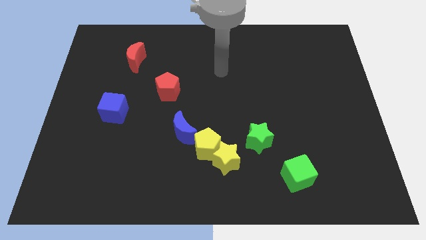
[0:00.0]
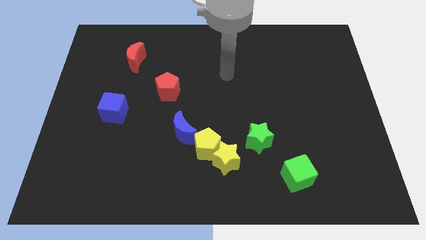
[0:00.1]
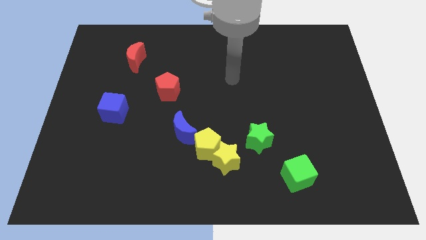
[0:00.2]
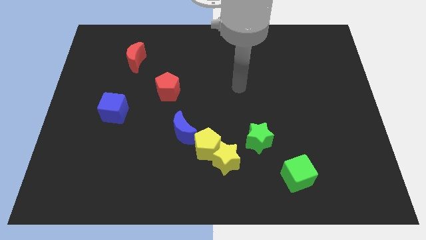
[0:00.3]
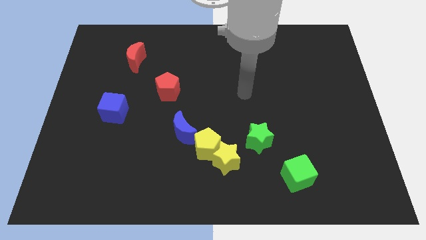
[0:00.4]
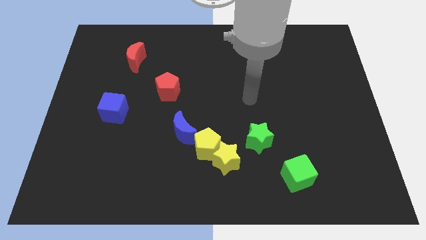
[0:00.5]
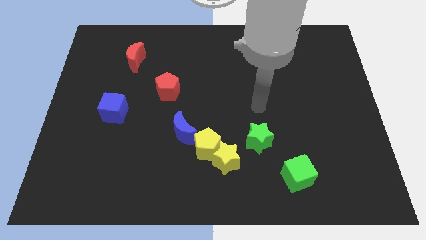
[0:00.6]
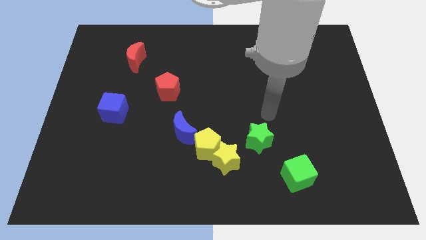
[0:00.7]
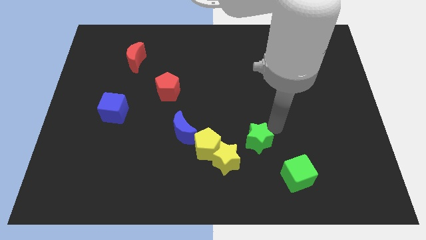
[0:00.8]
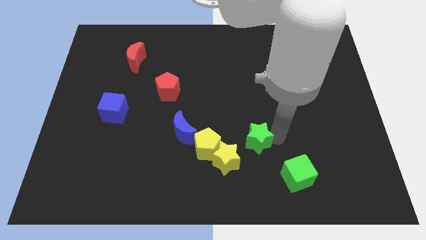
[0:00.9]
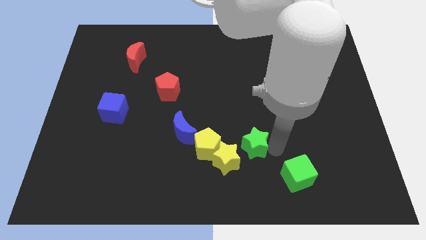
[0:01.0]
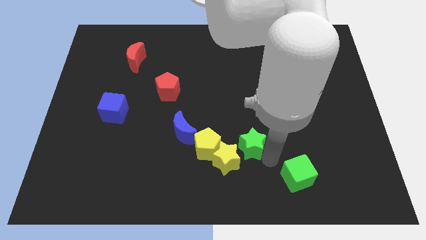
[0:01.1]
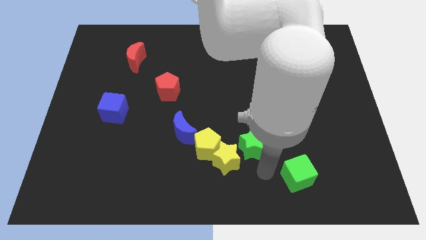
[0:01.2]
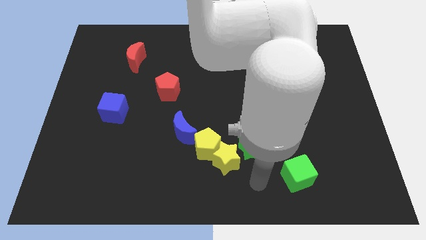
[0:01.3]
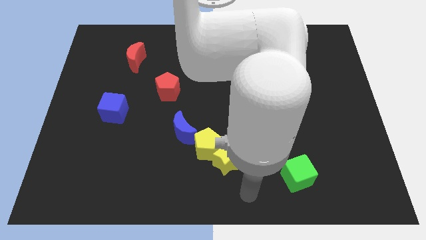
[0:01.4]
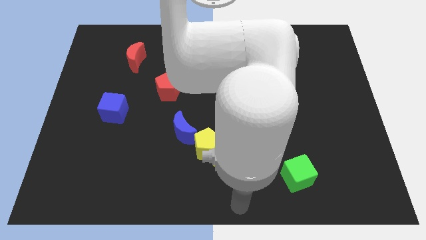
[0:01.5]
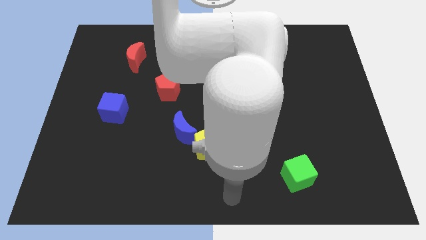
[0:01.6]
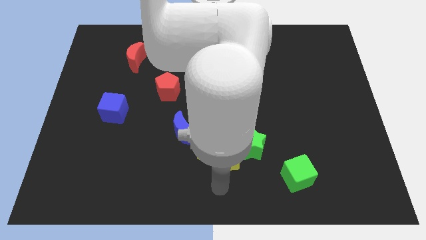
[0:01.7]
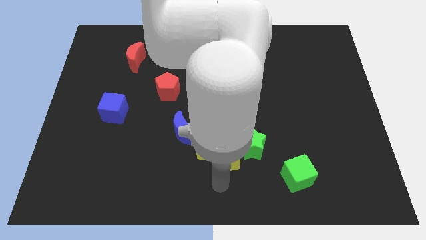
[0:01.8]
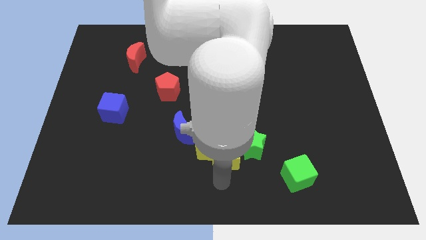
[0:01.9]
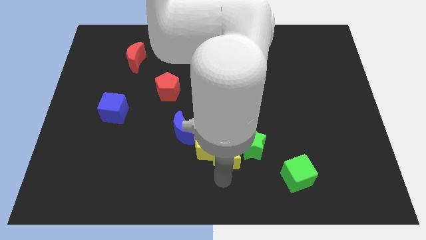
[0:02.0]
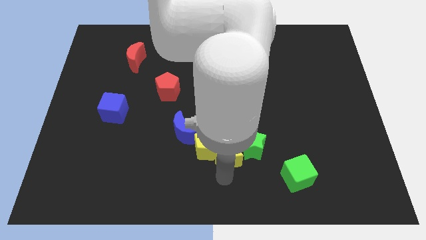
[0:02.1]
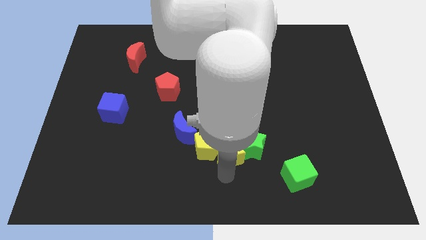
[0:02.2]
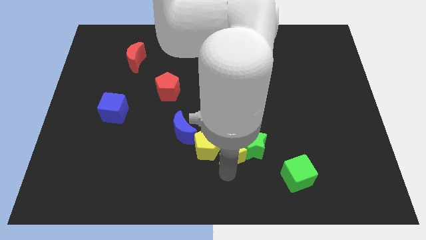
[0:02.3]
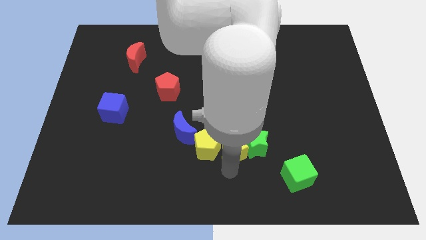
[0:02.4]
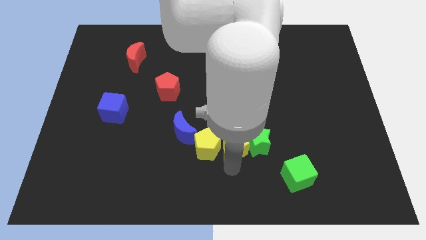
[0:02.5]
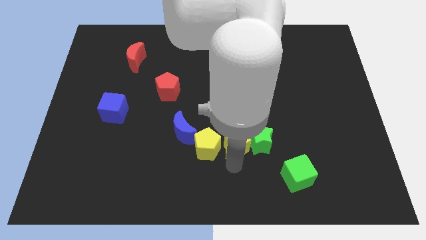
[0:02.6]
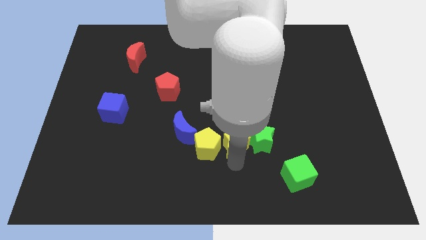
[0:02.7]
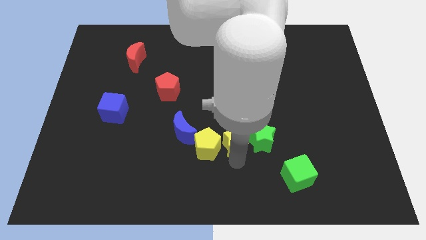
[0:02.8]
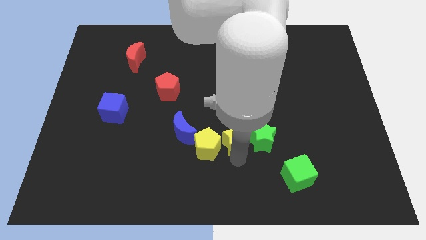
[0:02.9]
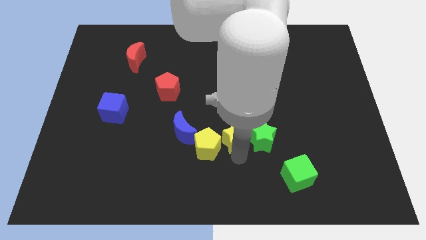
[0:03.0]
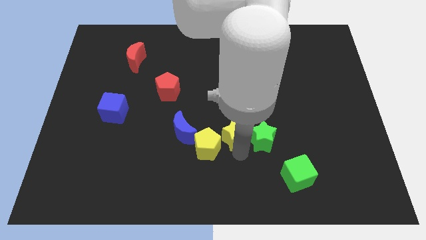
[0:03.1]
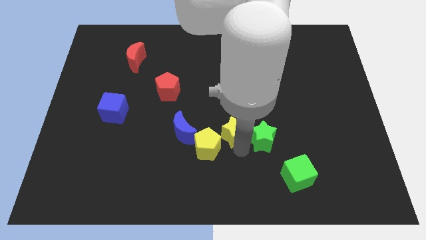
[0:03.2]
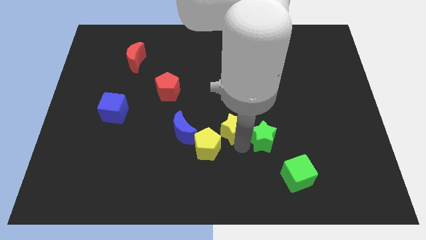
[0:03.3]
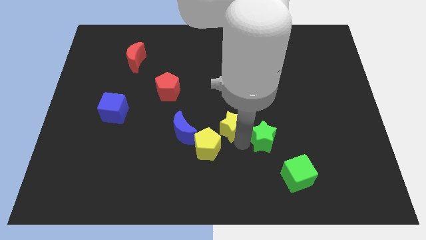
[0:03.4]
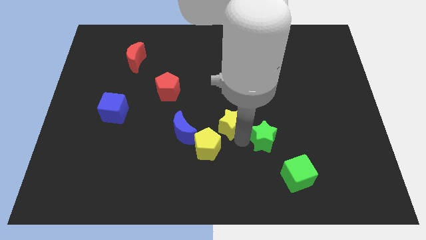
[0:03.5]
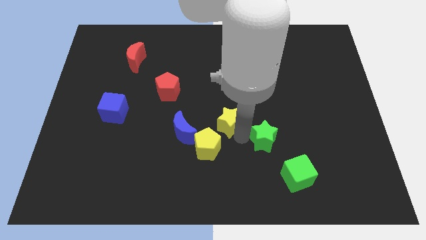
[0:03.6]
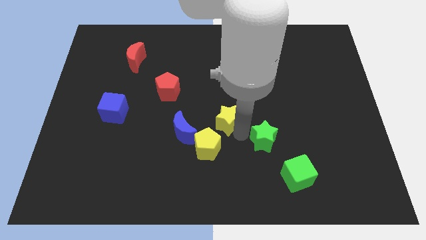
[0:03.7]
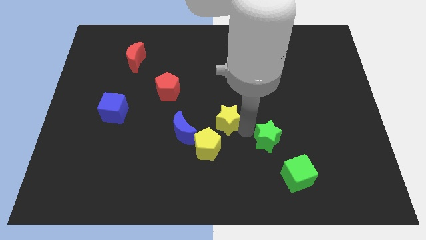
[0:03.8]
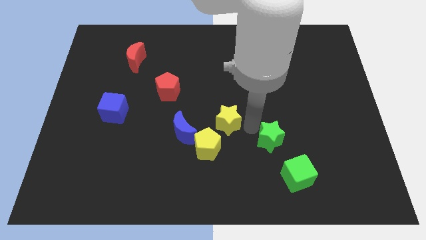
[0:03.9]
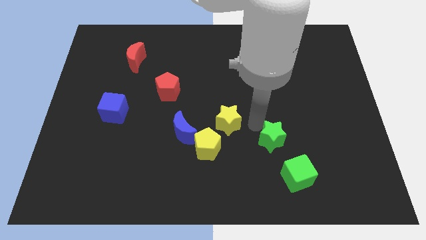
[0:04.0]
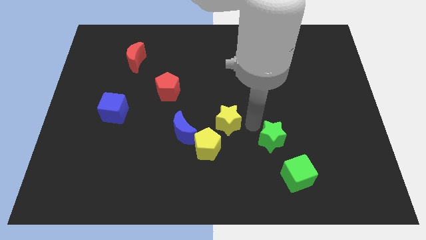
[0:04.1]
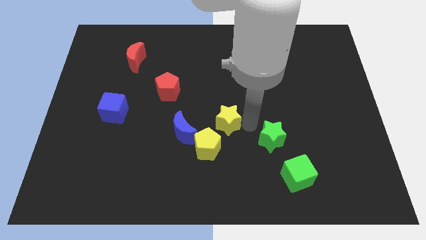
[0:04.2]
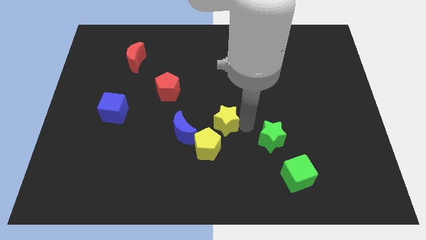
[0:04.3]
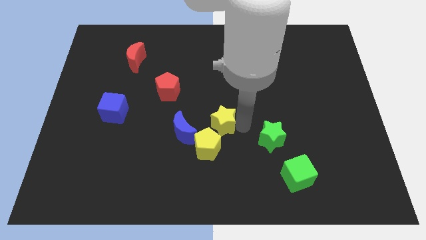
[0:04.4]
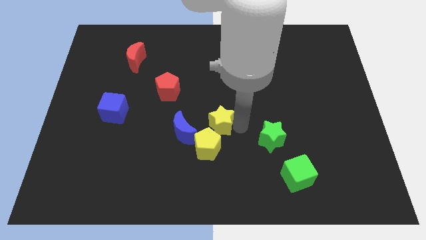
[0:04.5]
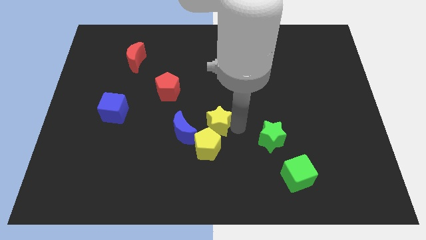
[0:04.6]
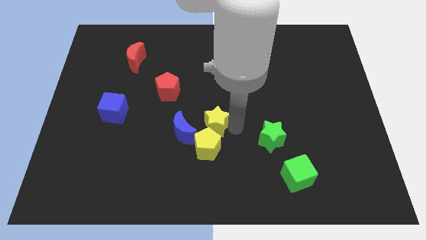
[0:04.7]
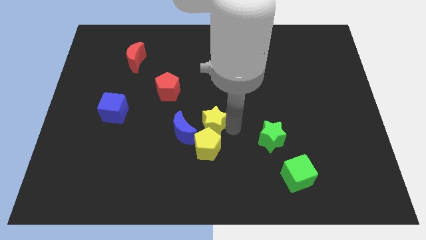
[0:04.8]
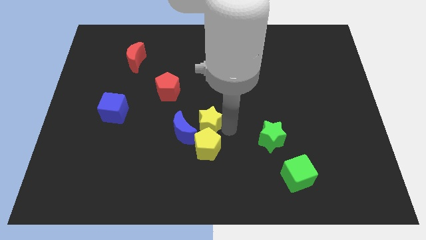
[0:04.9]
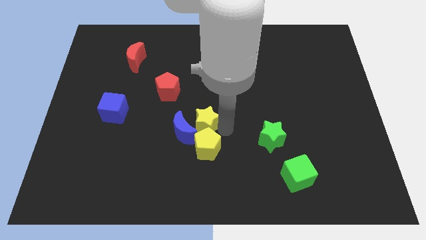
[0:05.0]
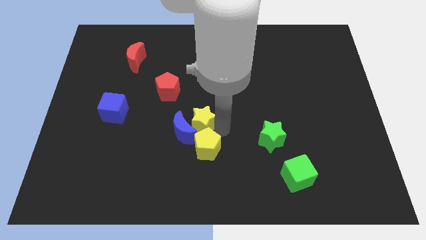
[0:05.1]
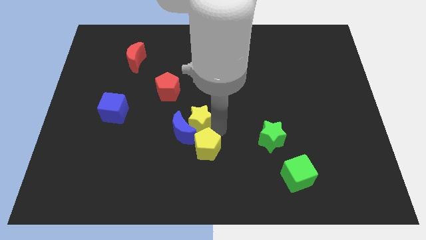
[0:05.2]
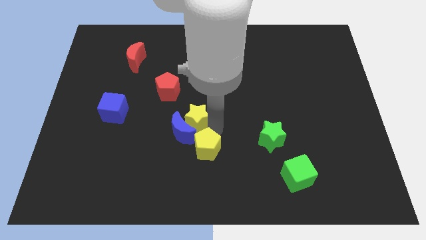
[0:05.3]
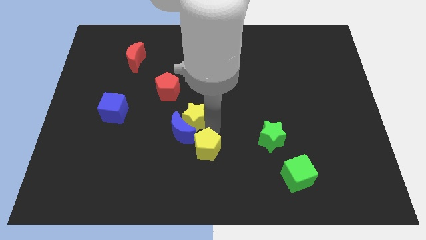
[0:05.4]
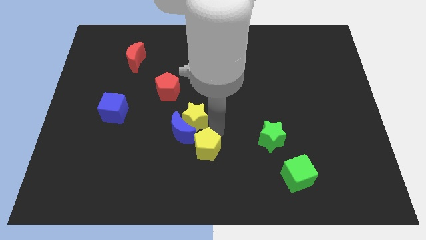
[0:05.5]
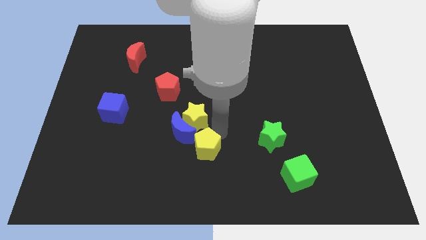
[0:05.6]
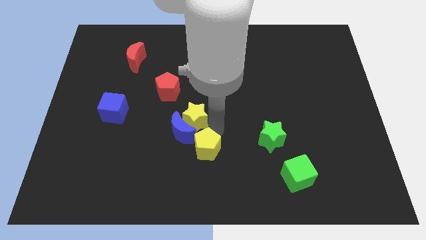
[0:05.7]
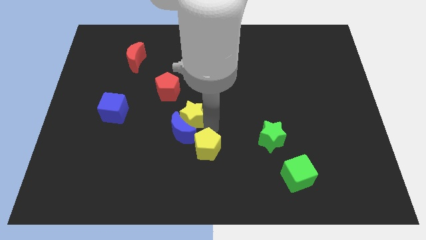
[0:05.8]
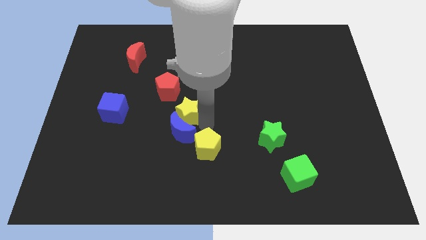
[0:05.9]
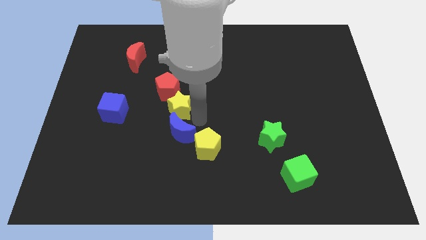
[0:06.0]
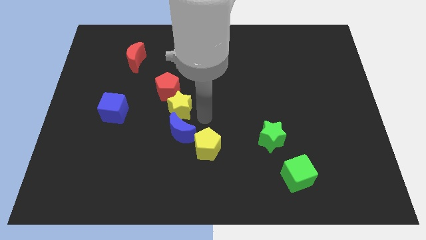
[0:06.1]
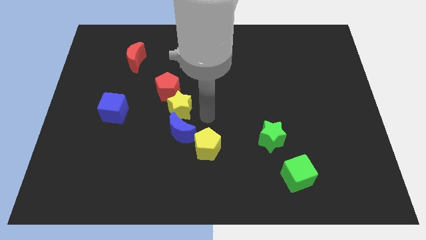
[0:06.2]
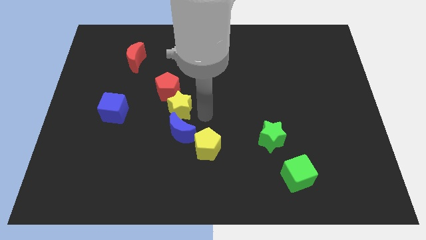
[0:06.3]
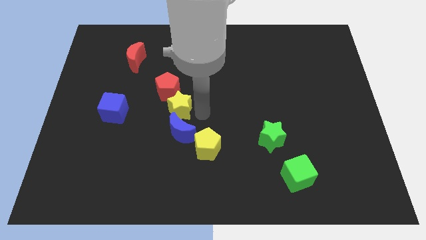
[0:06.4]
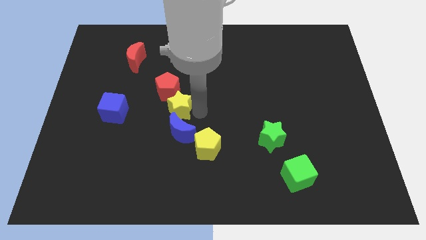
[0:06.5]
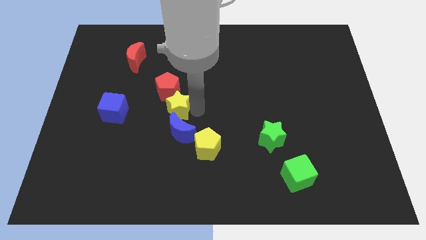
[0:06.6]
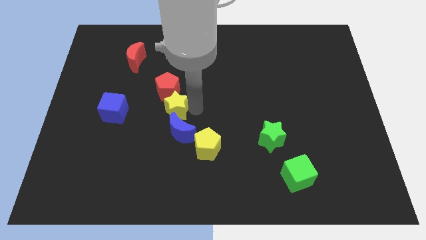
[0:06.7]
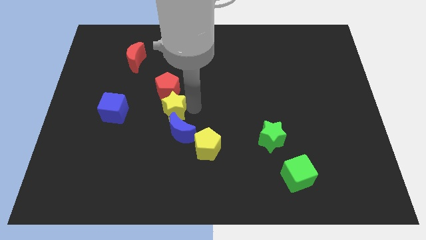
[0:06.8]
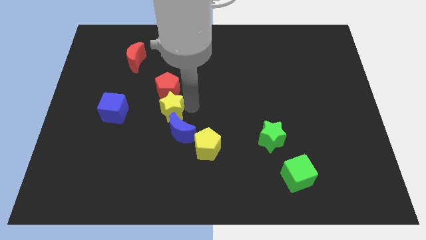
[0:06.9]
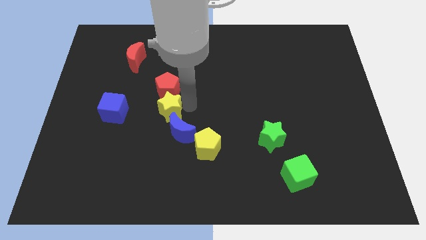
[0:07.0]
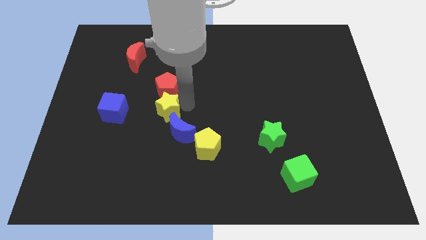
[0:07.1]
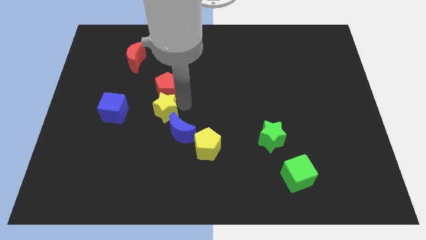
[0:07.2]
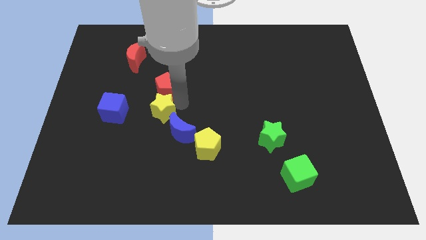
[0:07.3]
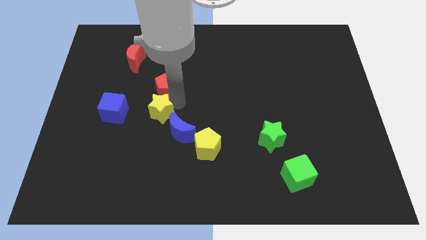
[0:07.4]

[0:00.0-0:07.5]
push the yellow star upwards and then left

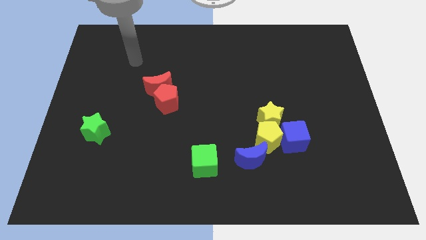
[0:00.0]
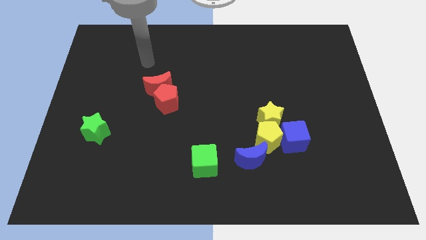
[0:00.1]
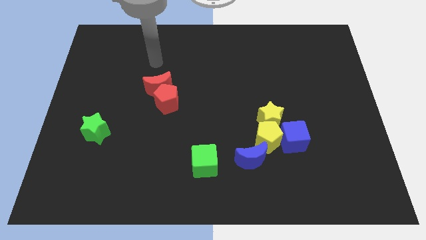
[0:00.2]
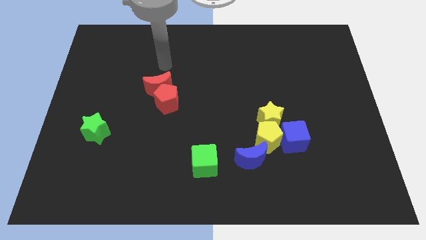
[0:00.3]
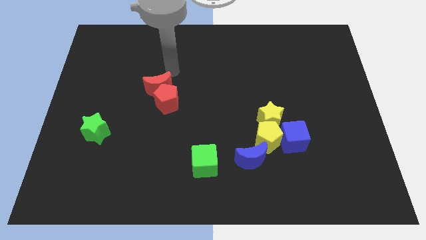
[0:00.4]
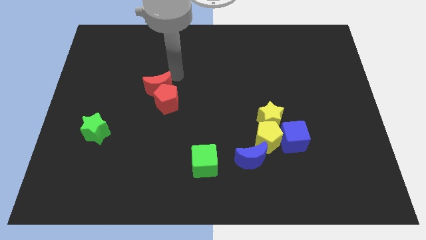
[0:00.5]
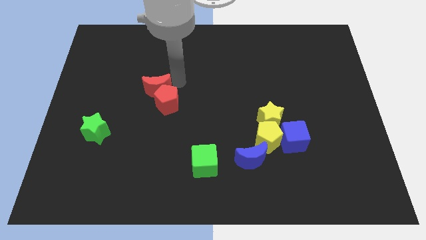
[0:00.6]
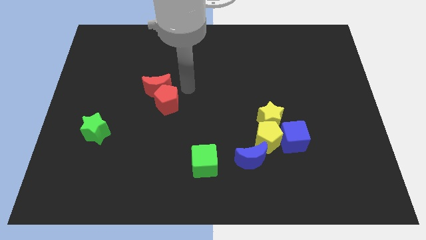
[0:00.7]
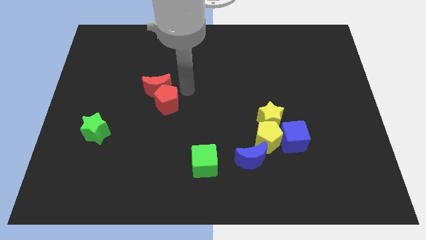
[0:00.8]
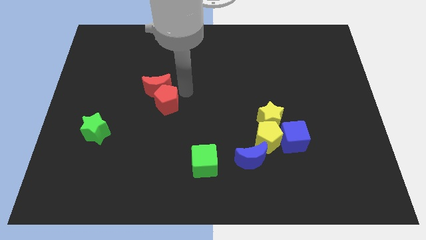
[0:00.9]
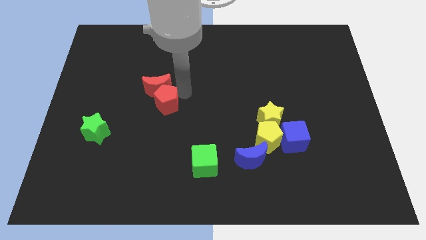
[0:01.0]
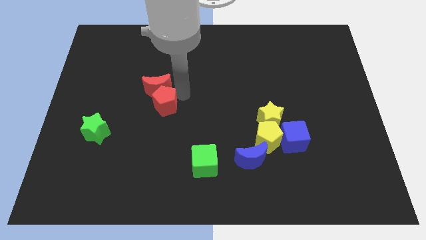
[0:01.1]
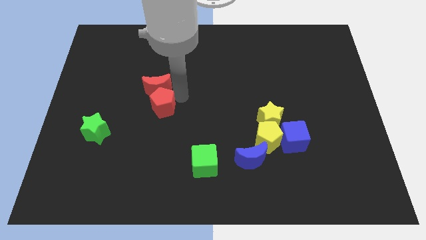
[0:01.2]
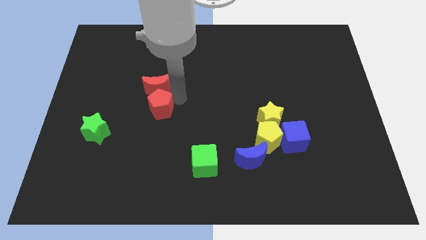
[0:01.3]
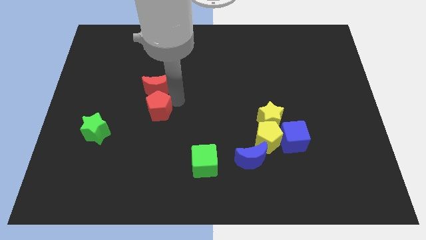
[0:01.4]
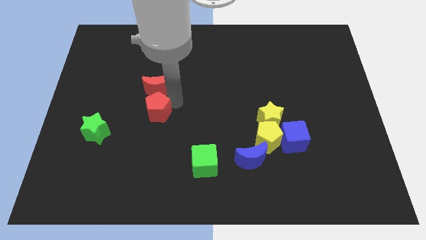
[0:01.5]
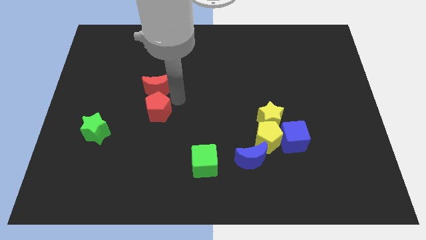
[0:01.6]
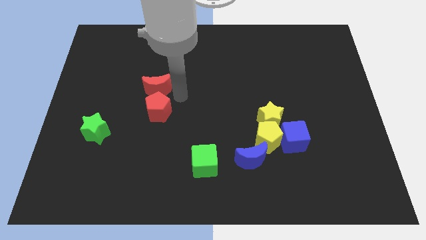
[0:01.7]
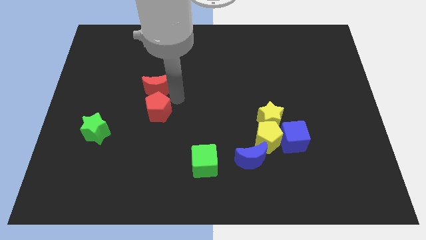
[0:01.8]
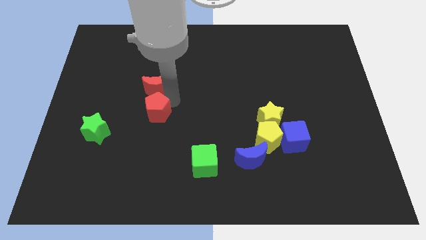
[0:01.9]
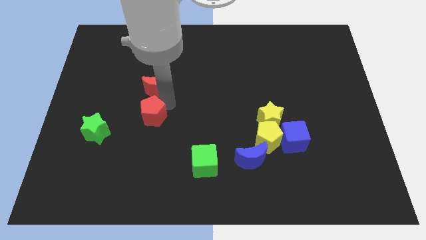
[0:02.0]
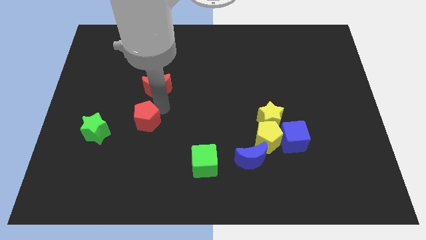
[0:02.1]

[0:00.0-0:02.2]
slightly slide the red pentagon downwards and to the left
